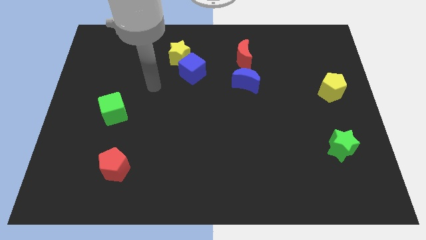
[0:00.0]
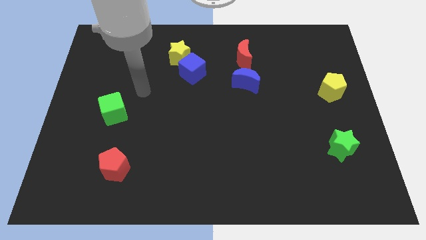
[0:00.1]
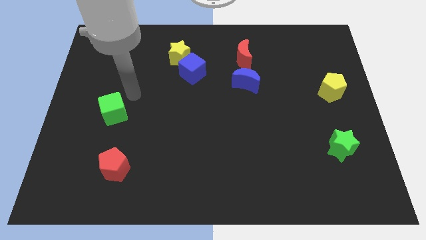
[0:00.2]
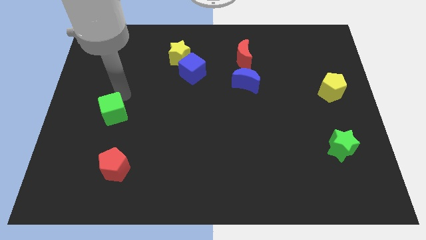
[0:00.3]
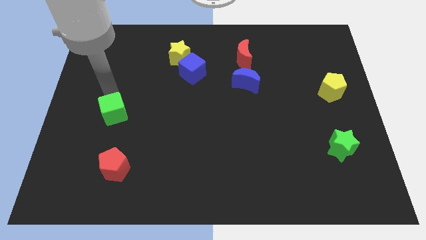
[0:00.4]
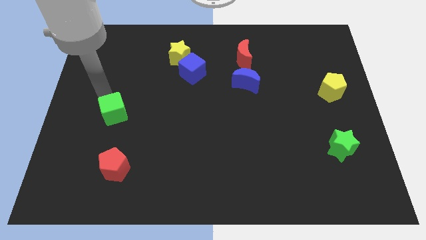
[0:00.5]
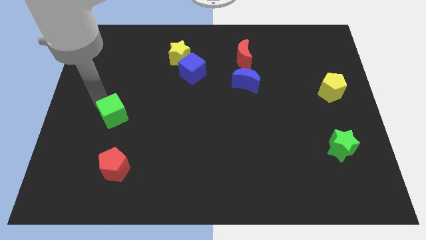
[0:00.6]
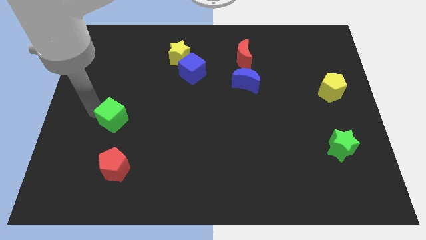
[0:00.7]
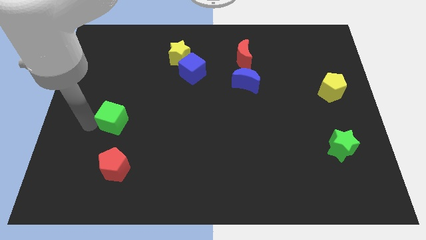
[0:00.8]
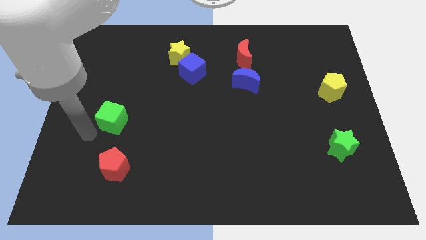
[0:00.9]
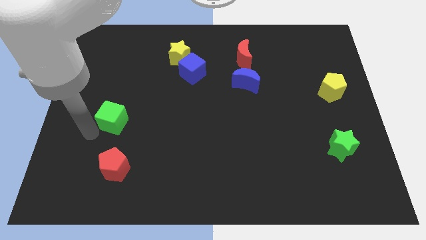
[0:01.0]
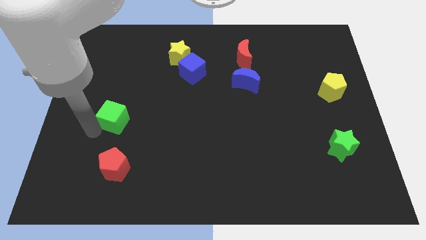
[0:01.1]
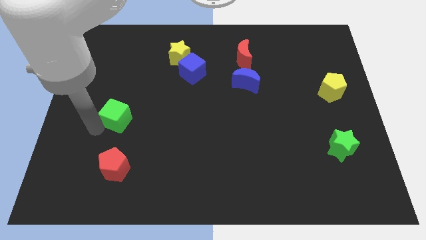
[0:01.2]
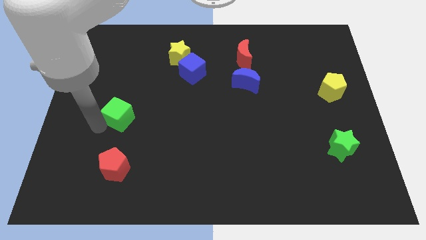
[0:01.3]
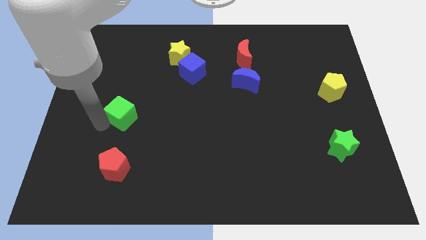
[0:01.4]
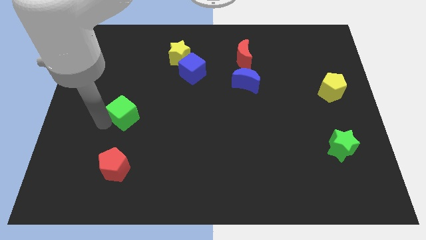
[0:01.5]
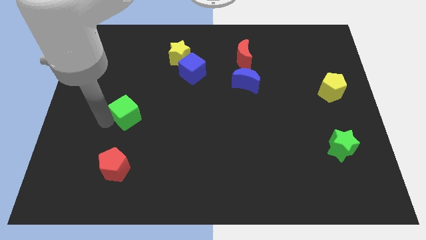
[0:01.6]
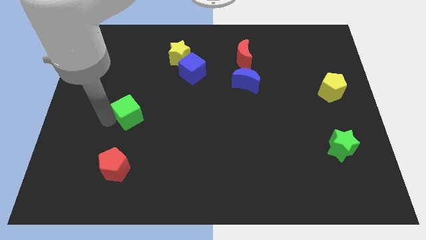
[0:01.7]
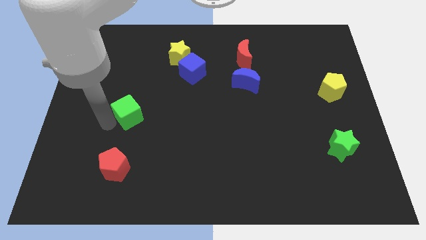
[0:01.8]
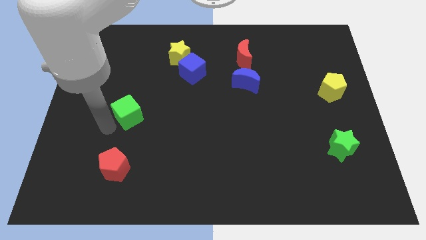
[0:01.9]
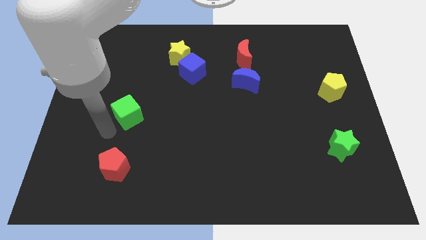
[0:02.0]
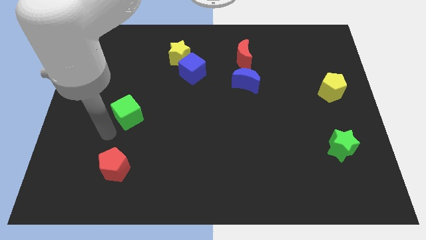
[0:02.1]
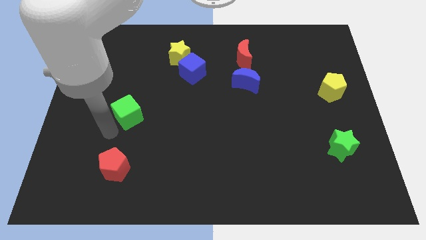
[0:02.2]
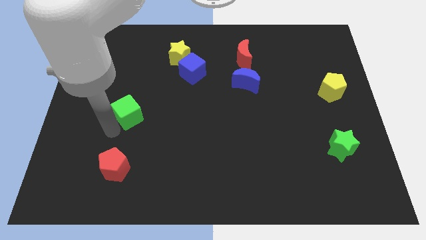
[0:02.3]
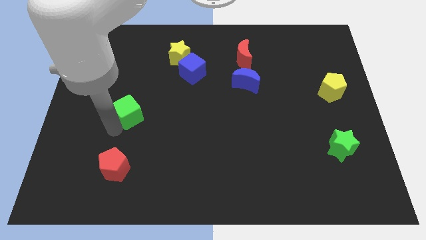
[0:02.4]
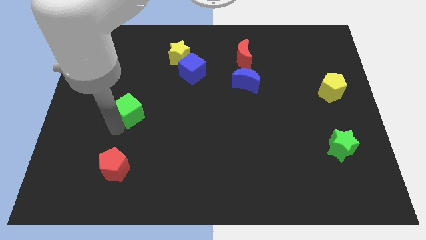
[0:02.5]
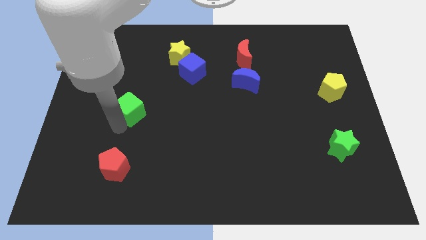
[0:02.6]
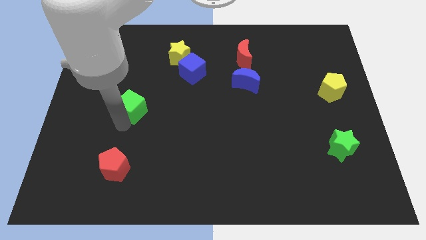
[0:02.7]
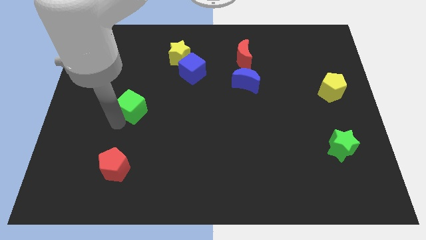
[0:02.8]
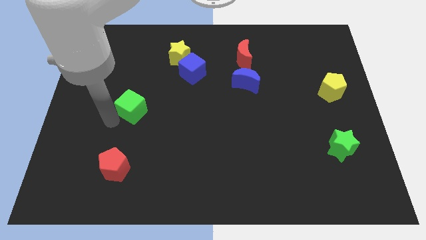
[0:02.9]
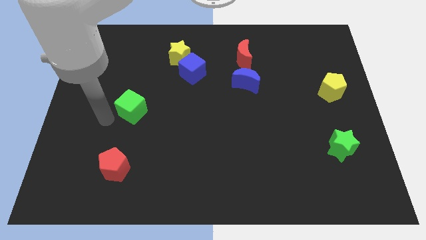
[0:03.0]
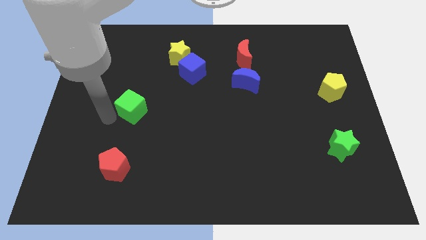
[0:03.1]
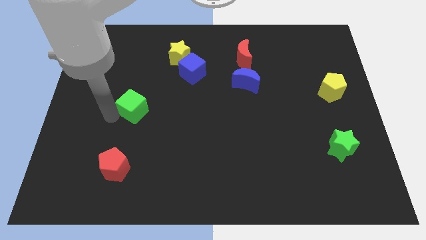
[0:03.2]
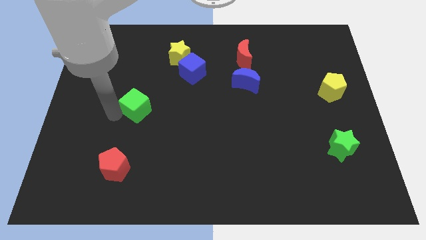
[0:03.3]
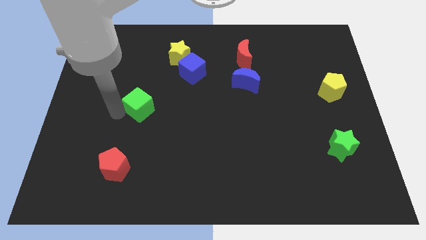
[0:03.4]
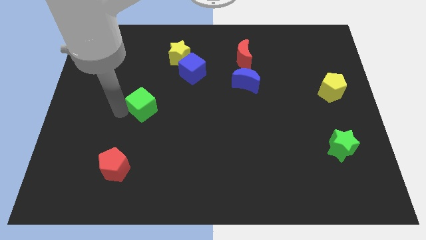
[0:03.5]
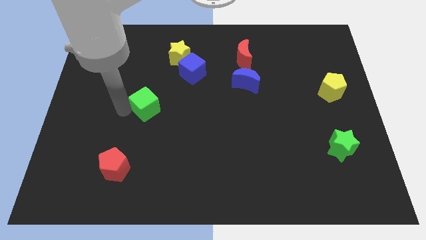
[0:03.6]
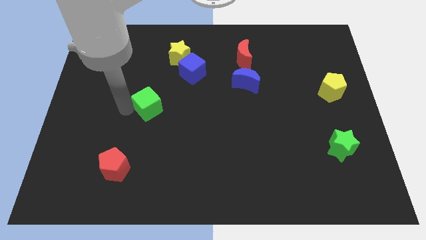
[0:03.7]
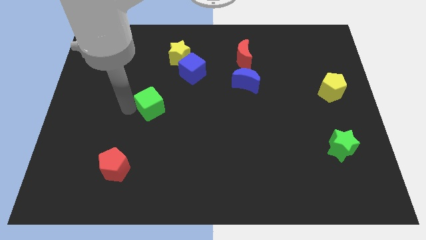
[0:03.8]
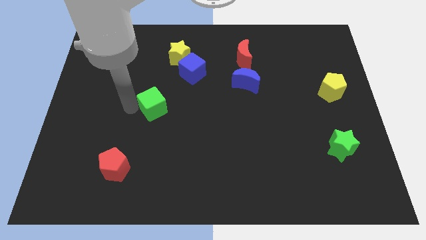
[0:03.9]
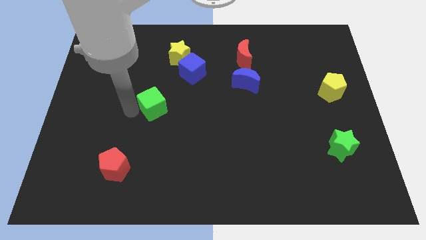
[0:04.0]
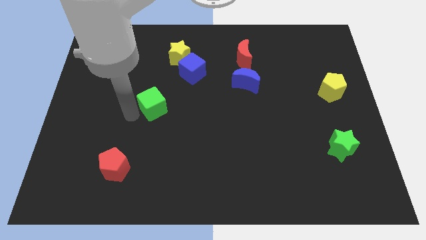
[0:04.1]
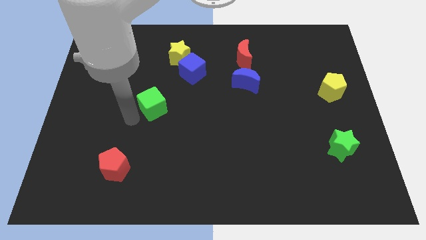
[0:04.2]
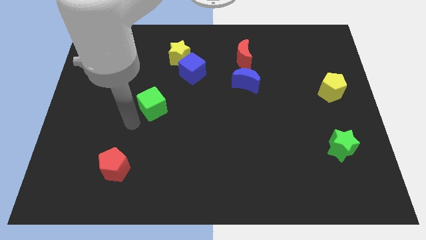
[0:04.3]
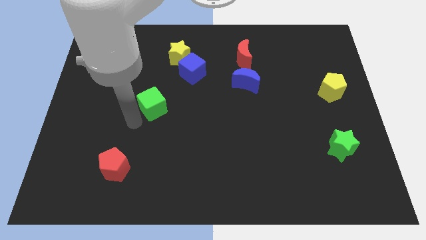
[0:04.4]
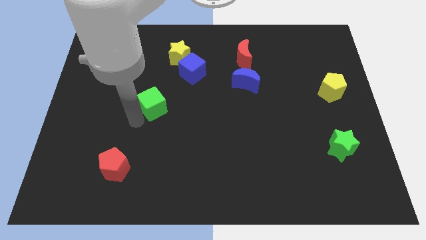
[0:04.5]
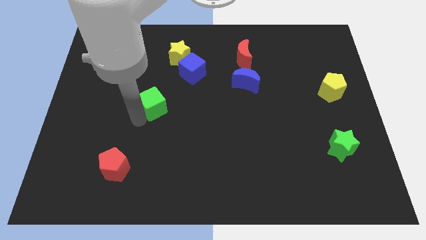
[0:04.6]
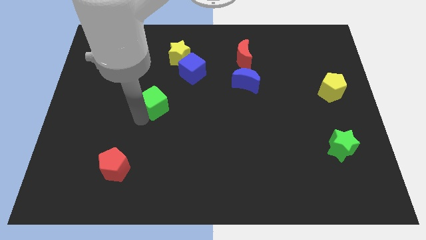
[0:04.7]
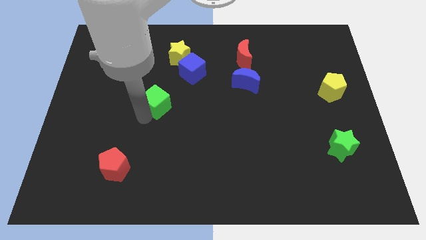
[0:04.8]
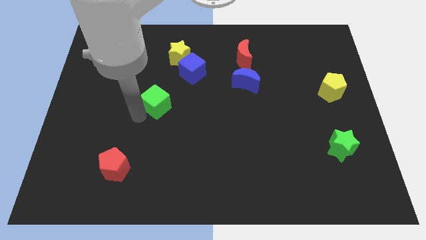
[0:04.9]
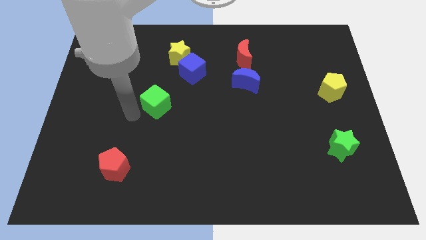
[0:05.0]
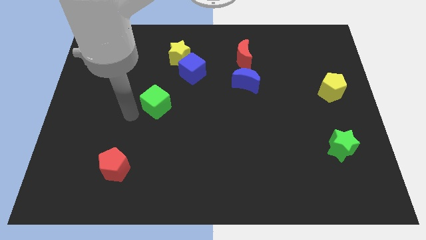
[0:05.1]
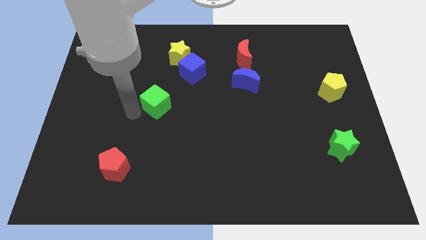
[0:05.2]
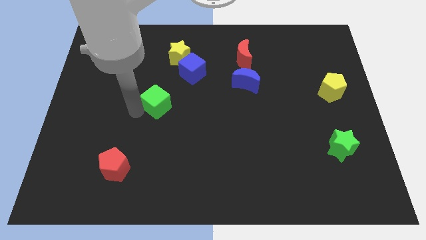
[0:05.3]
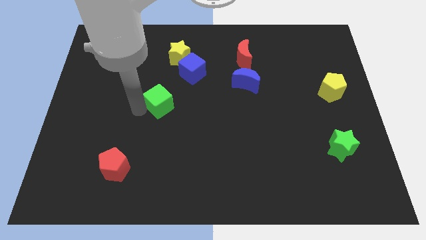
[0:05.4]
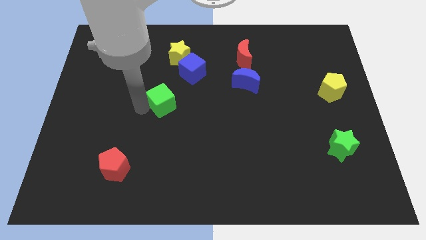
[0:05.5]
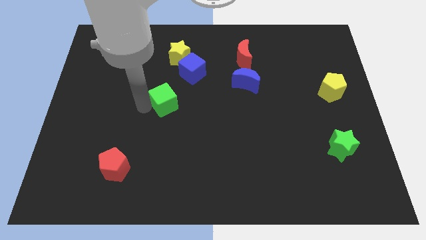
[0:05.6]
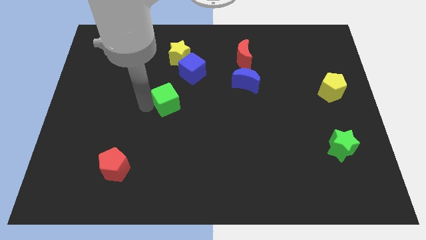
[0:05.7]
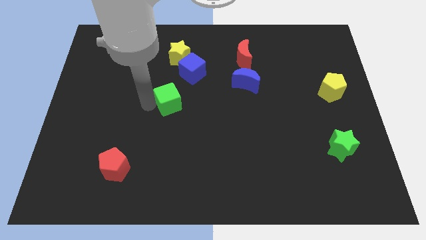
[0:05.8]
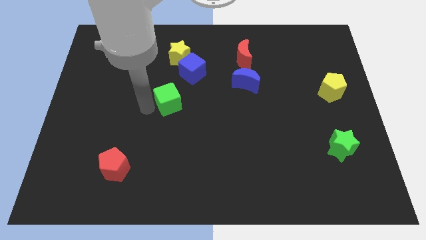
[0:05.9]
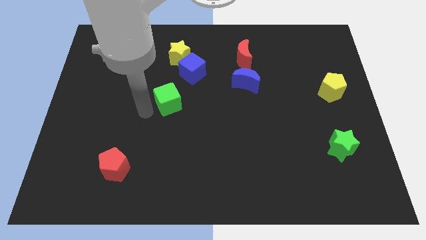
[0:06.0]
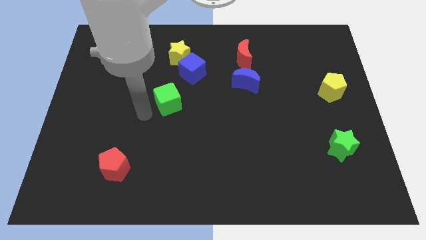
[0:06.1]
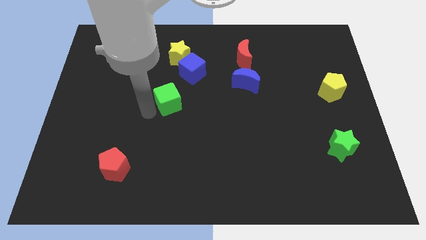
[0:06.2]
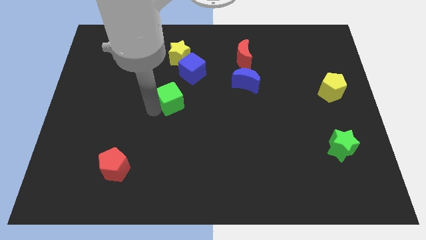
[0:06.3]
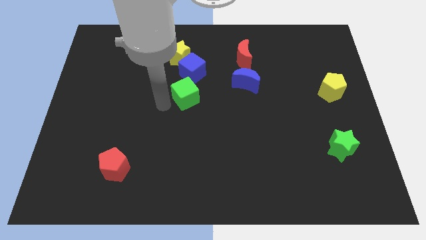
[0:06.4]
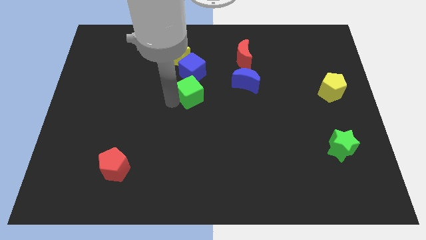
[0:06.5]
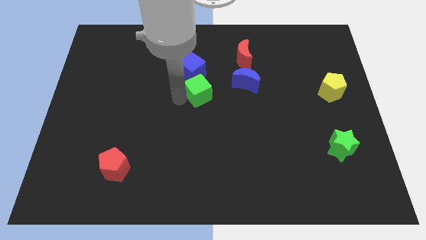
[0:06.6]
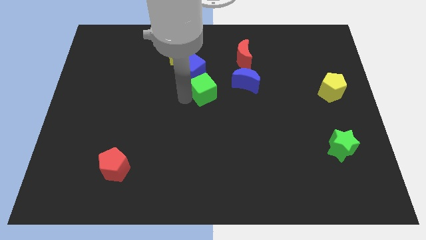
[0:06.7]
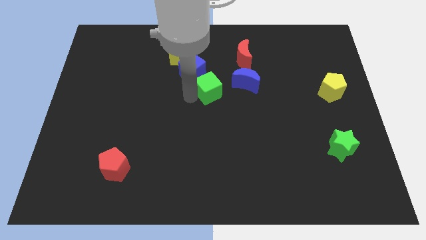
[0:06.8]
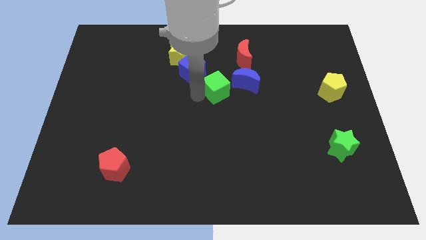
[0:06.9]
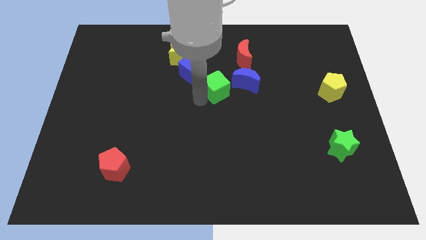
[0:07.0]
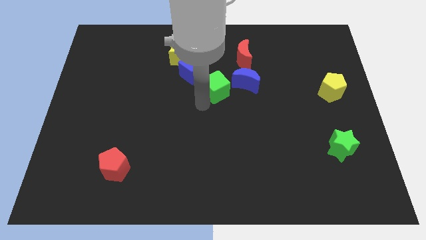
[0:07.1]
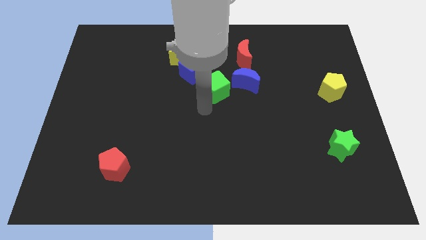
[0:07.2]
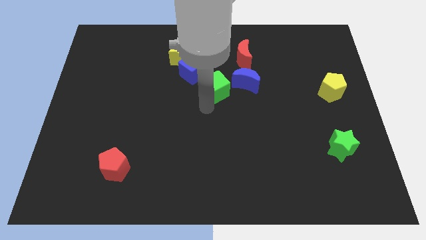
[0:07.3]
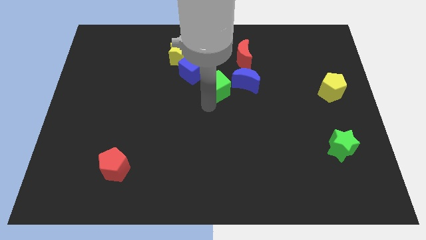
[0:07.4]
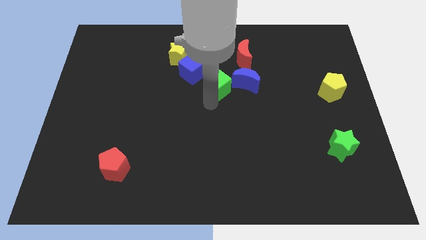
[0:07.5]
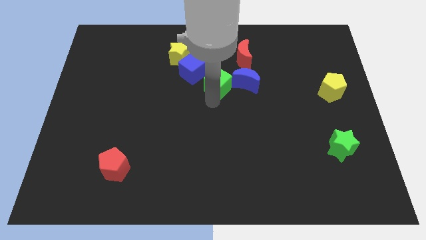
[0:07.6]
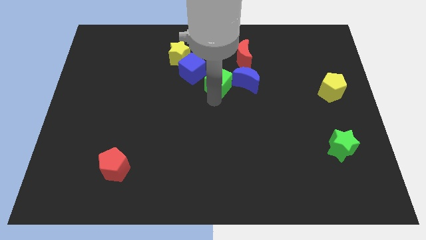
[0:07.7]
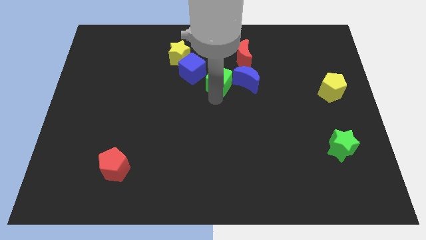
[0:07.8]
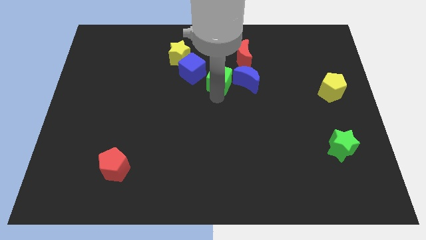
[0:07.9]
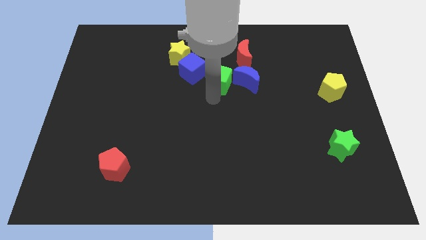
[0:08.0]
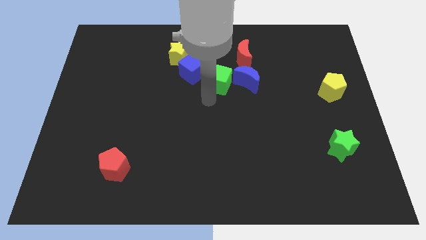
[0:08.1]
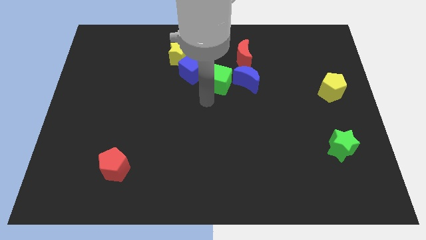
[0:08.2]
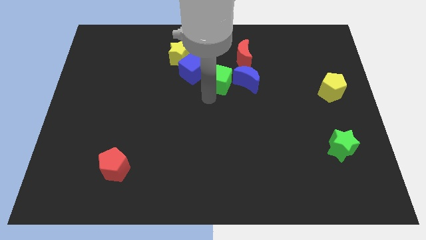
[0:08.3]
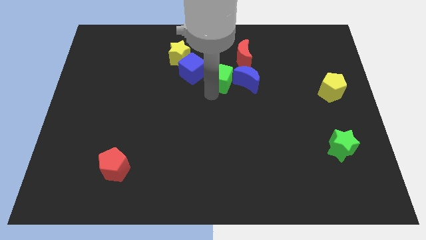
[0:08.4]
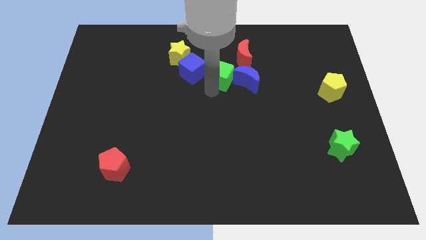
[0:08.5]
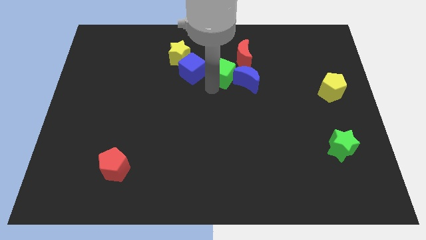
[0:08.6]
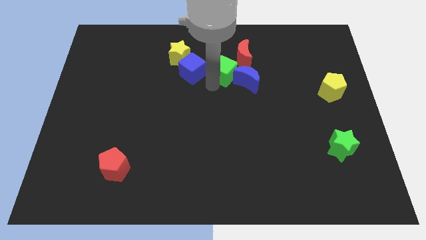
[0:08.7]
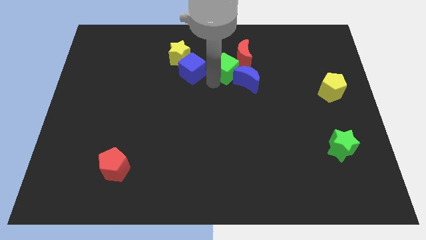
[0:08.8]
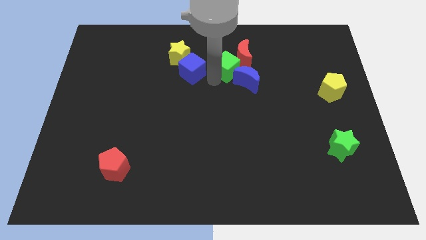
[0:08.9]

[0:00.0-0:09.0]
move the green cube to the red moon
